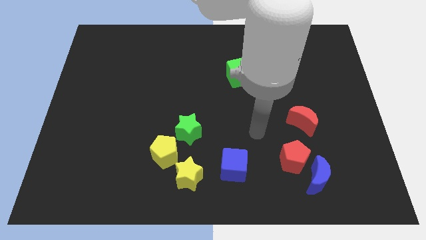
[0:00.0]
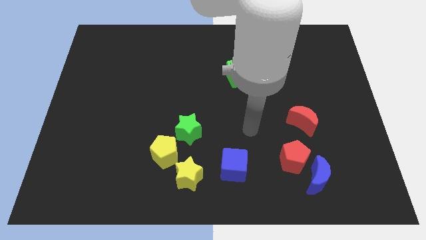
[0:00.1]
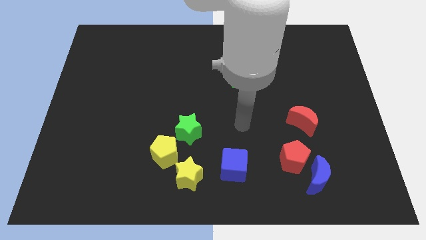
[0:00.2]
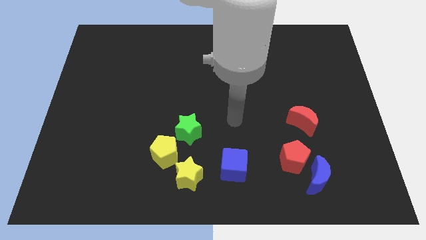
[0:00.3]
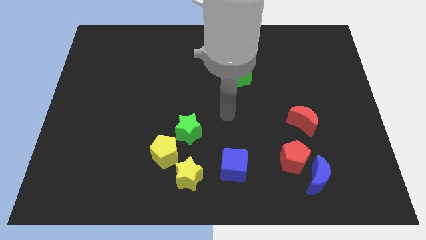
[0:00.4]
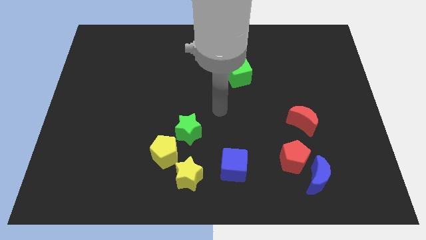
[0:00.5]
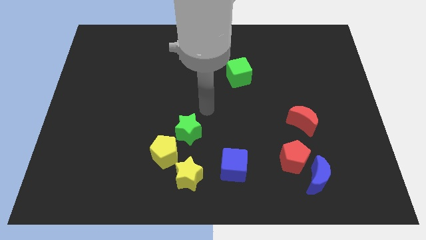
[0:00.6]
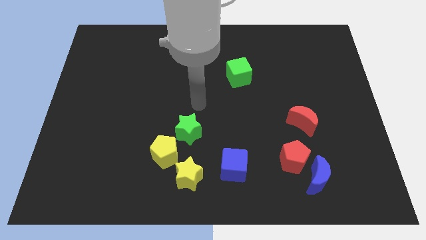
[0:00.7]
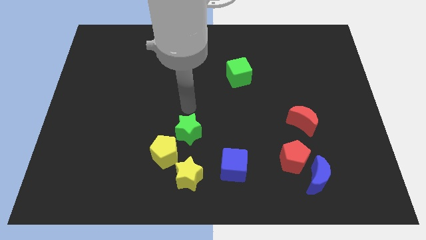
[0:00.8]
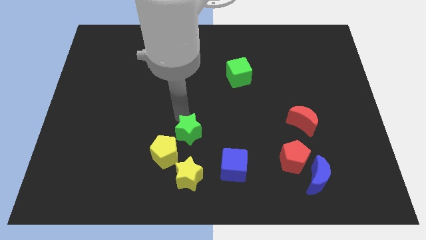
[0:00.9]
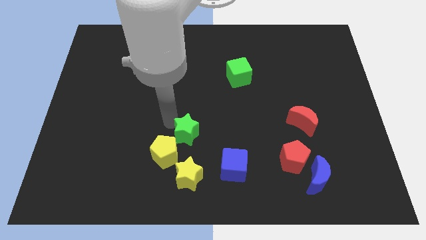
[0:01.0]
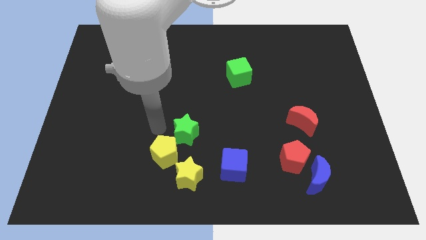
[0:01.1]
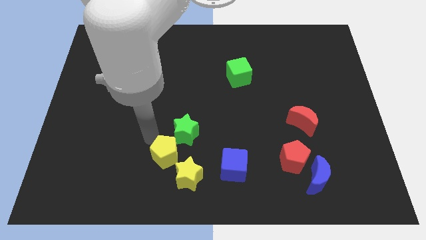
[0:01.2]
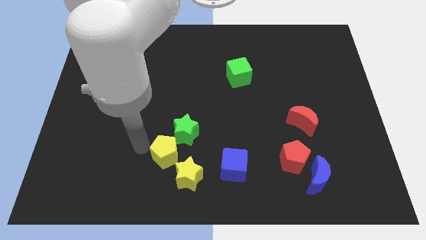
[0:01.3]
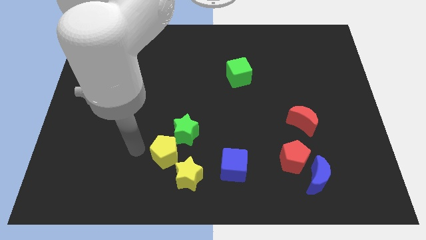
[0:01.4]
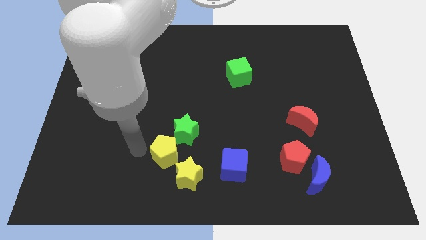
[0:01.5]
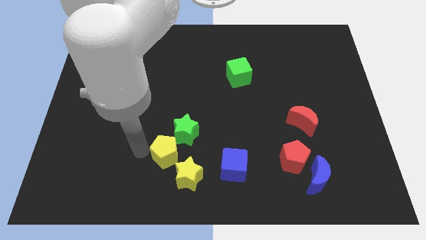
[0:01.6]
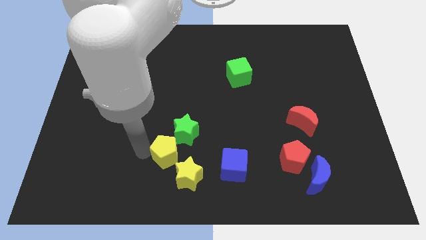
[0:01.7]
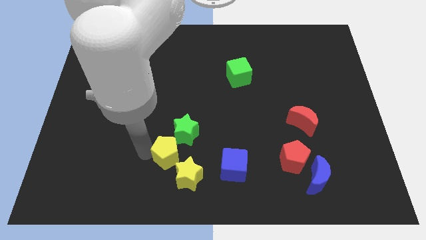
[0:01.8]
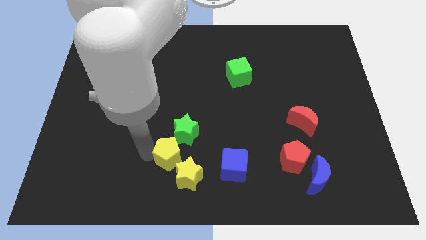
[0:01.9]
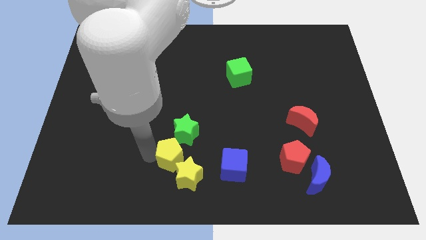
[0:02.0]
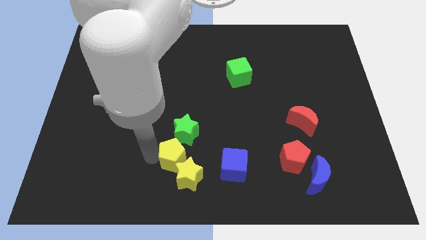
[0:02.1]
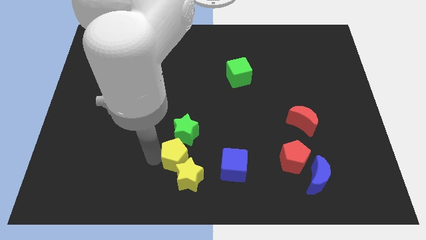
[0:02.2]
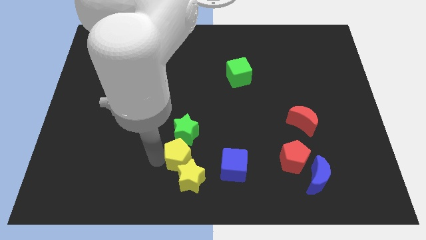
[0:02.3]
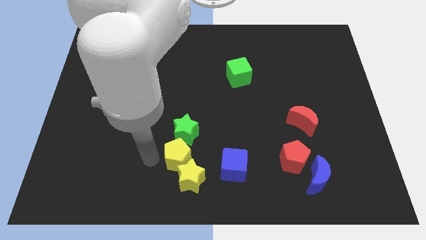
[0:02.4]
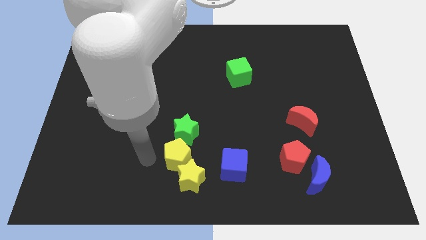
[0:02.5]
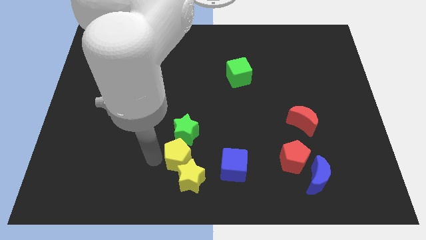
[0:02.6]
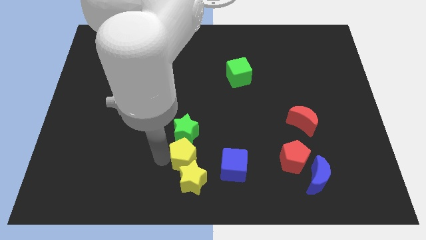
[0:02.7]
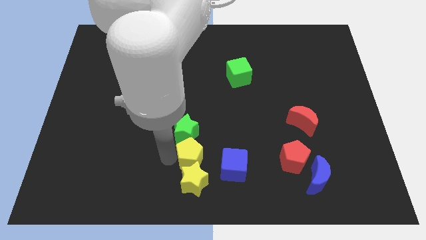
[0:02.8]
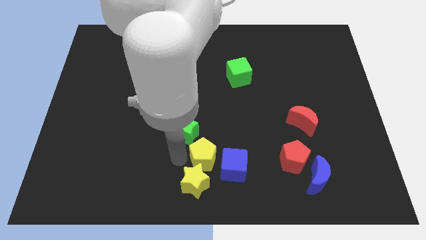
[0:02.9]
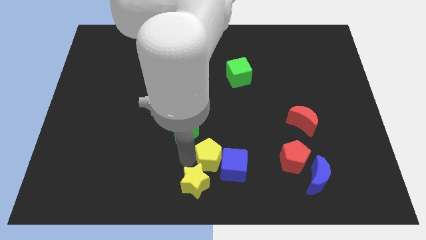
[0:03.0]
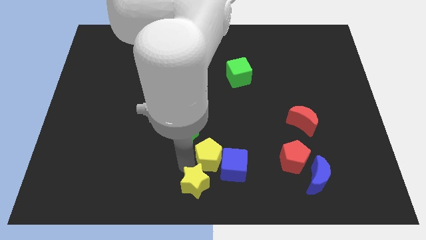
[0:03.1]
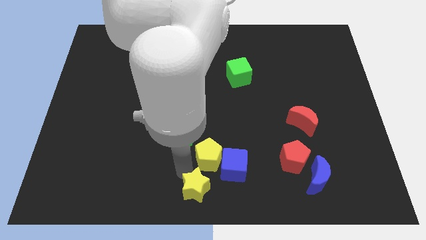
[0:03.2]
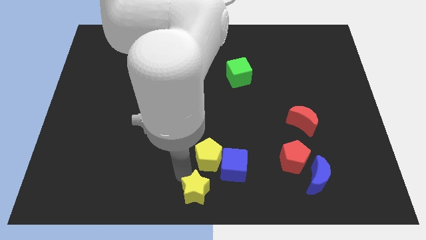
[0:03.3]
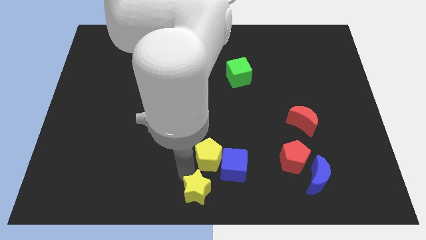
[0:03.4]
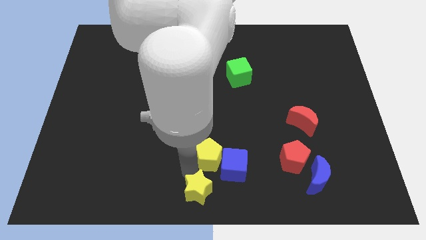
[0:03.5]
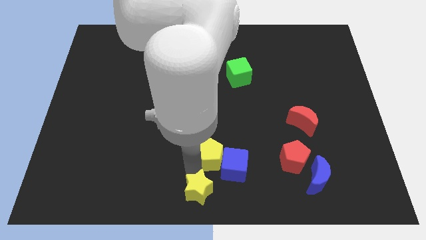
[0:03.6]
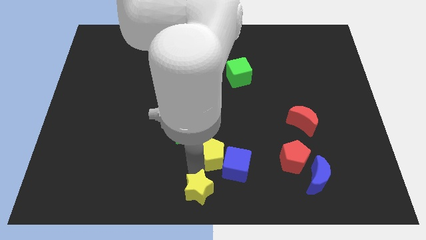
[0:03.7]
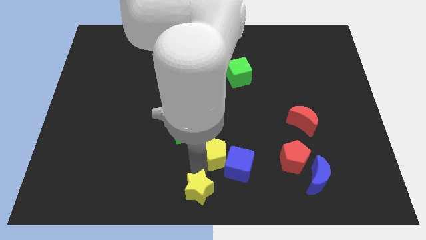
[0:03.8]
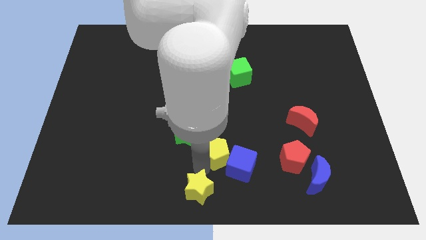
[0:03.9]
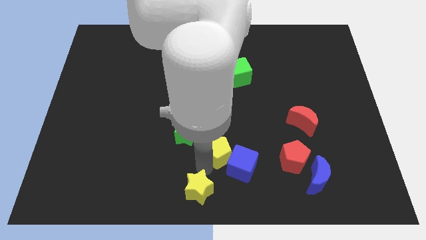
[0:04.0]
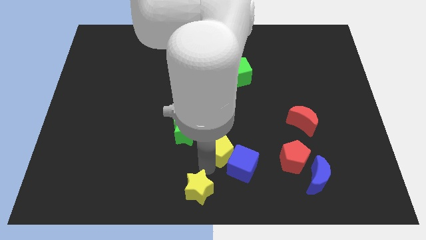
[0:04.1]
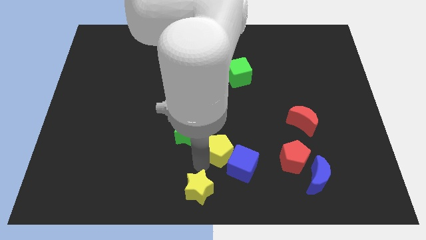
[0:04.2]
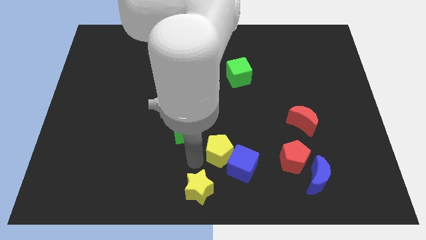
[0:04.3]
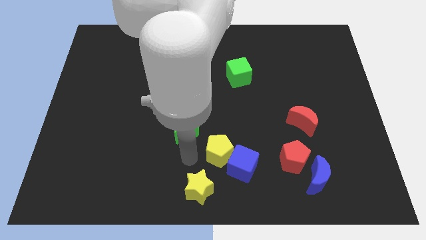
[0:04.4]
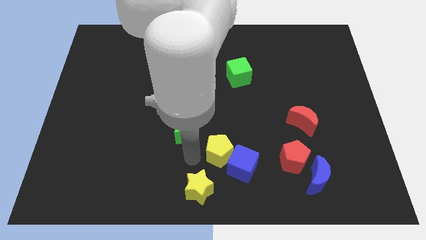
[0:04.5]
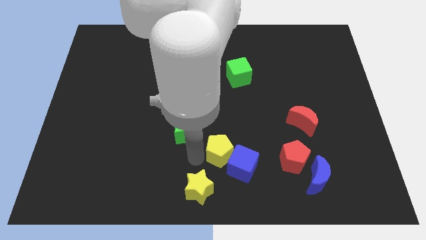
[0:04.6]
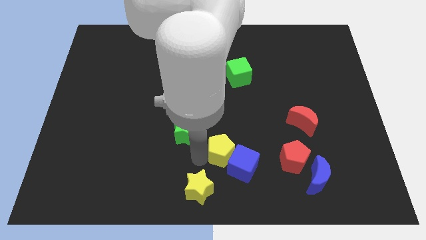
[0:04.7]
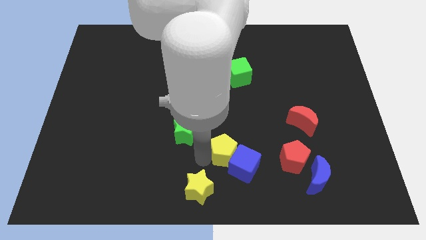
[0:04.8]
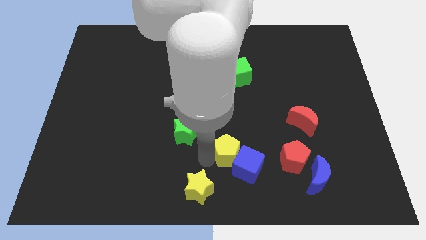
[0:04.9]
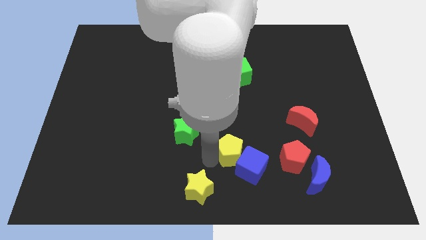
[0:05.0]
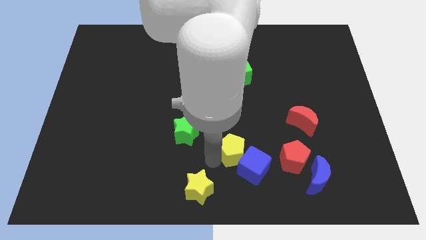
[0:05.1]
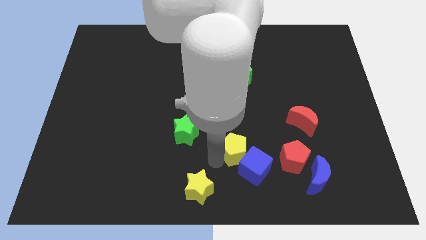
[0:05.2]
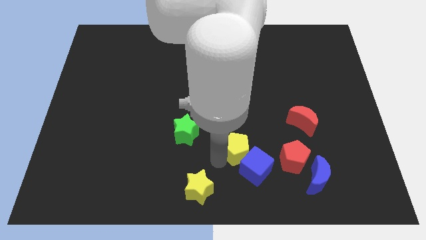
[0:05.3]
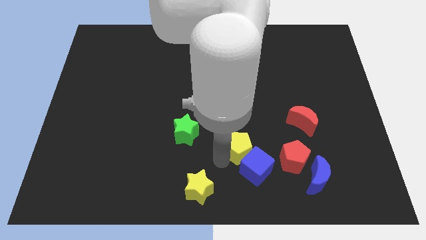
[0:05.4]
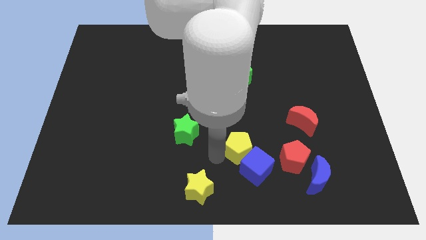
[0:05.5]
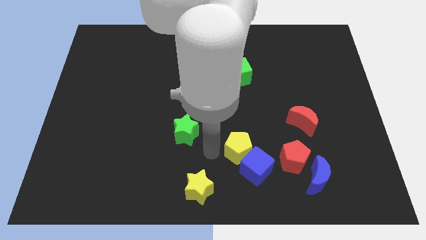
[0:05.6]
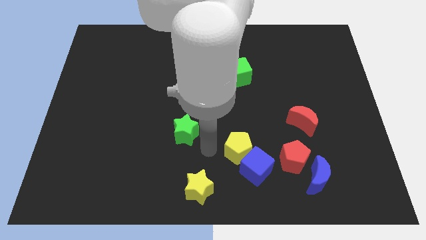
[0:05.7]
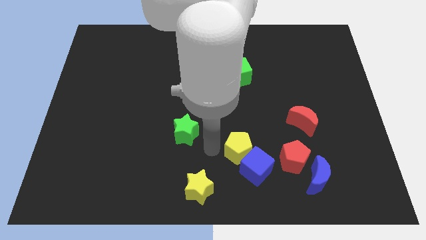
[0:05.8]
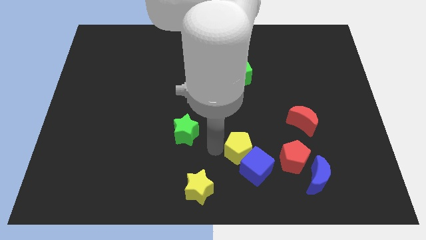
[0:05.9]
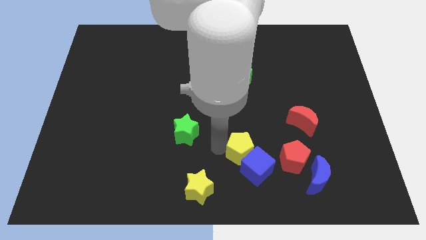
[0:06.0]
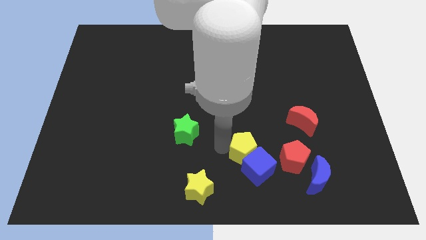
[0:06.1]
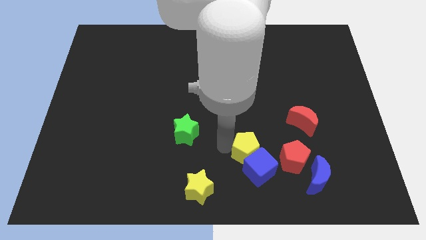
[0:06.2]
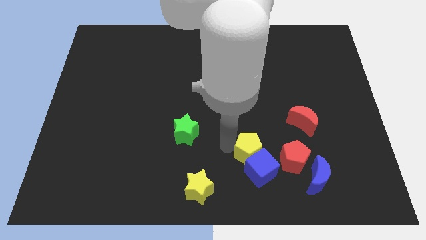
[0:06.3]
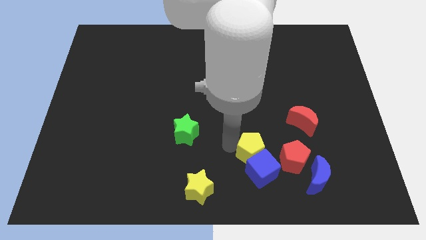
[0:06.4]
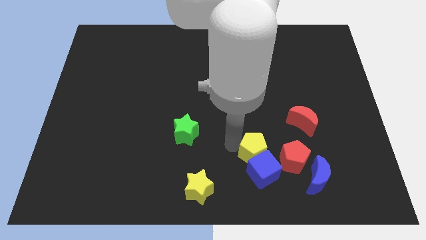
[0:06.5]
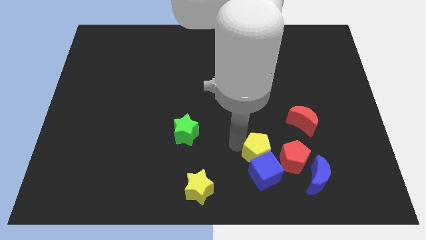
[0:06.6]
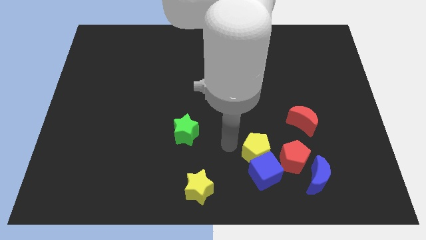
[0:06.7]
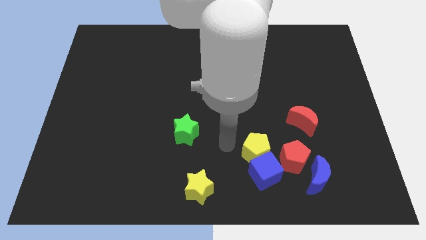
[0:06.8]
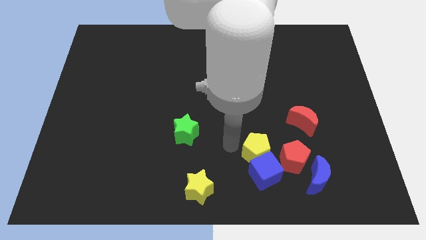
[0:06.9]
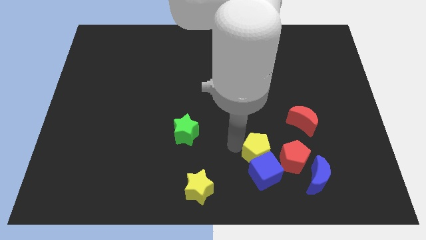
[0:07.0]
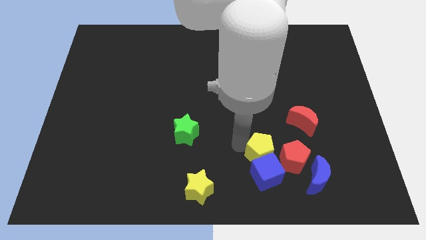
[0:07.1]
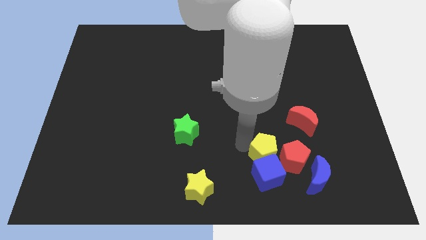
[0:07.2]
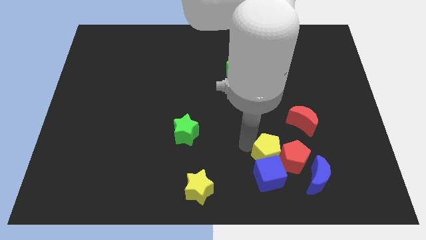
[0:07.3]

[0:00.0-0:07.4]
slide the yellow pentagon next to the red pentagon
